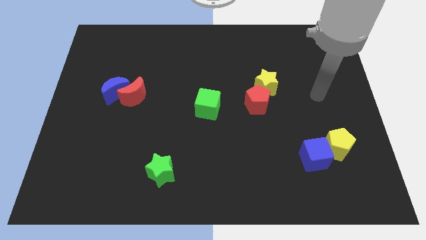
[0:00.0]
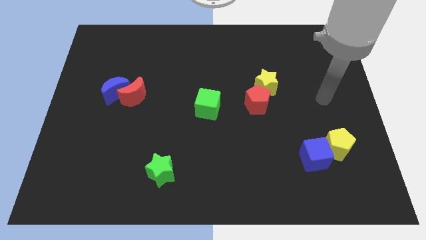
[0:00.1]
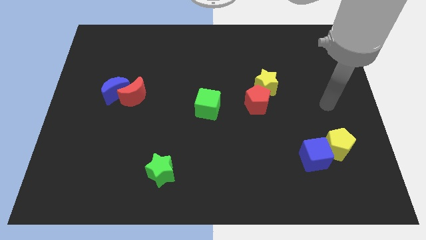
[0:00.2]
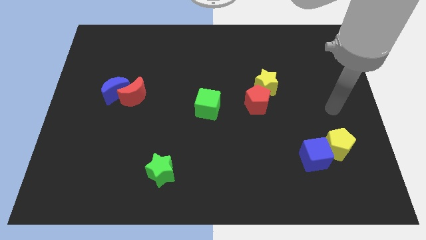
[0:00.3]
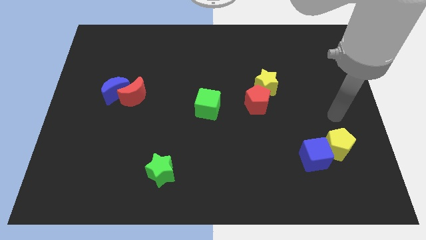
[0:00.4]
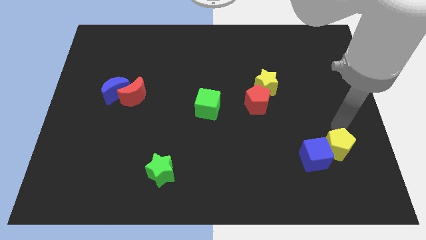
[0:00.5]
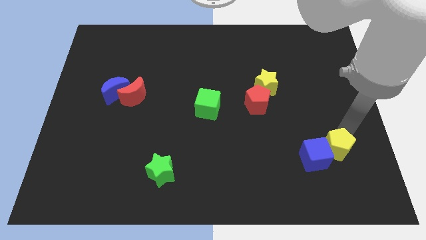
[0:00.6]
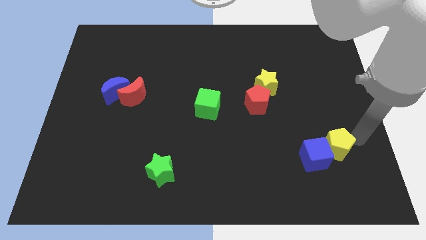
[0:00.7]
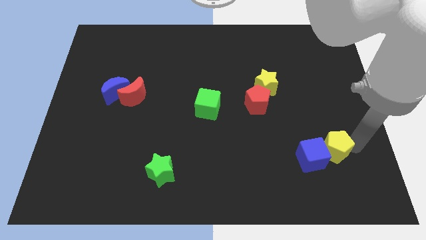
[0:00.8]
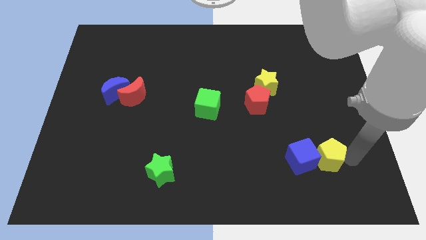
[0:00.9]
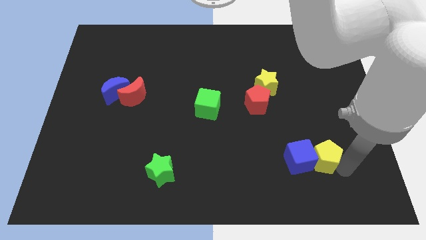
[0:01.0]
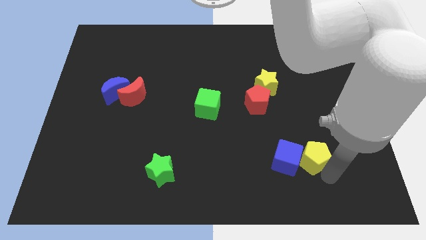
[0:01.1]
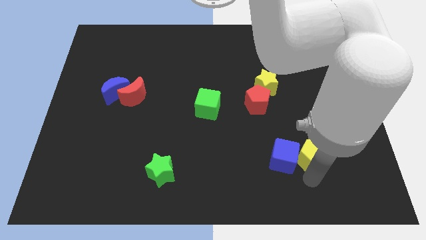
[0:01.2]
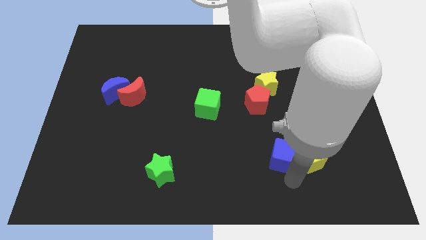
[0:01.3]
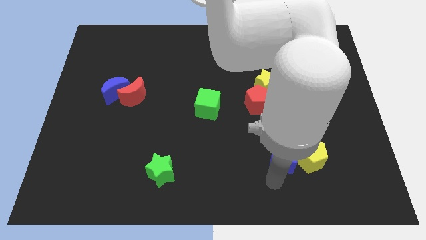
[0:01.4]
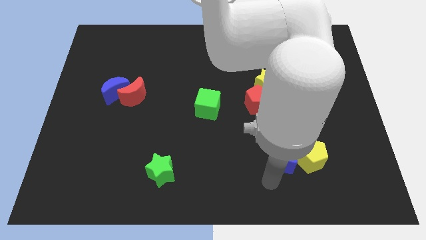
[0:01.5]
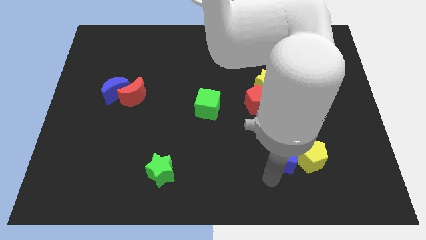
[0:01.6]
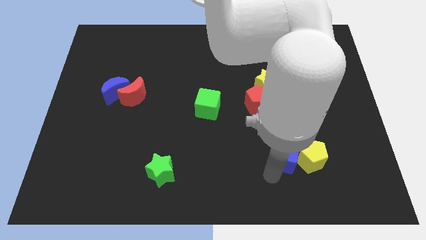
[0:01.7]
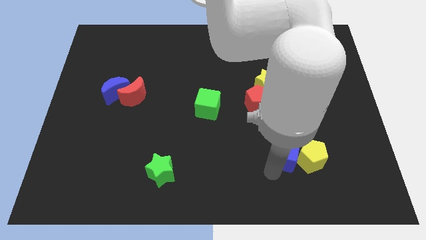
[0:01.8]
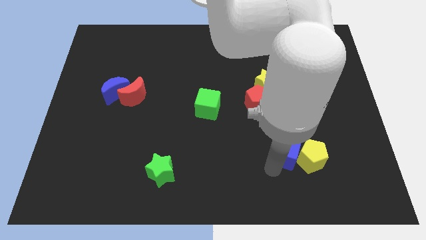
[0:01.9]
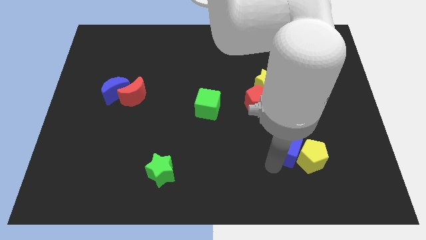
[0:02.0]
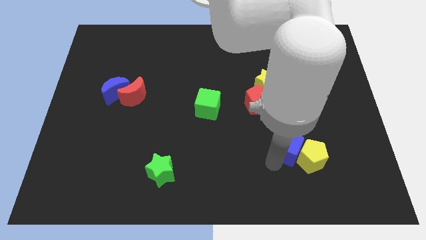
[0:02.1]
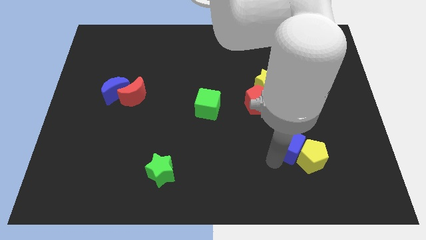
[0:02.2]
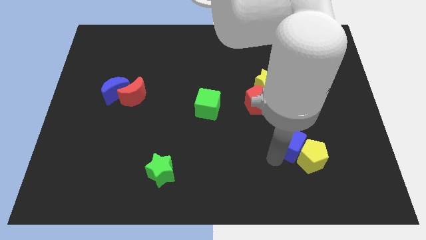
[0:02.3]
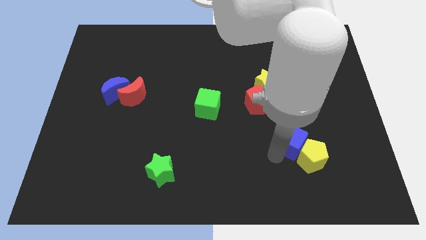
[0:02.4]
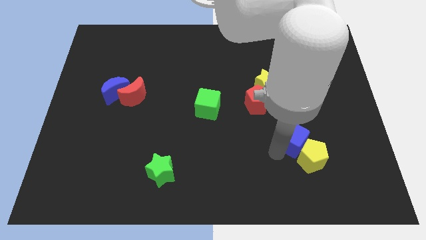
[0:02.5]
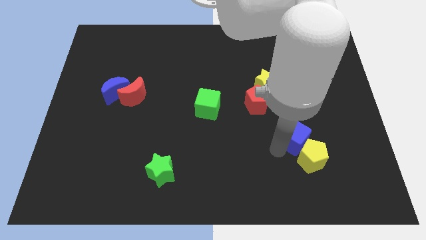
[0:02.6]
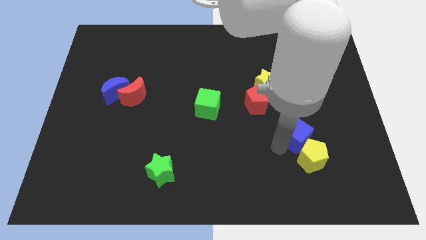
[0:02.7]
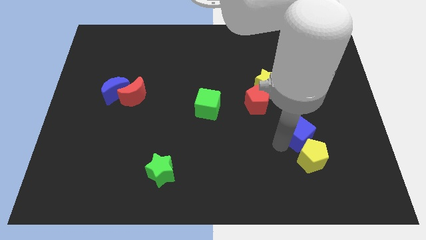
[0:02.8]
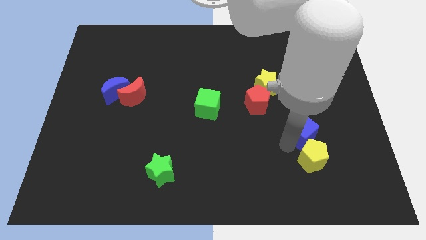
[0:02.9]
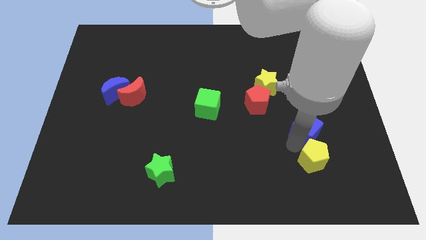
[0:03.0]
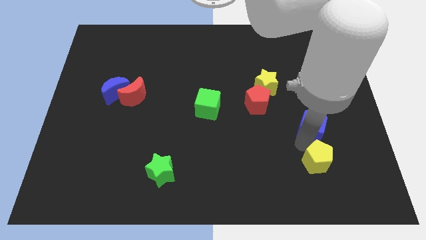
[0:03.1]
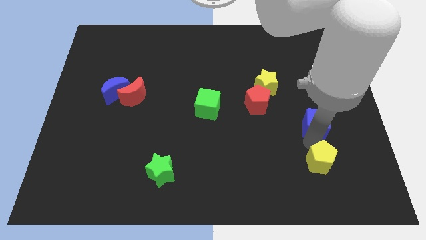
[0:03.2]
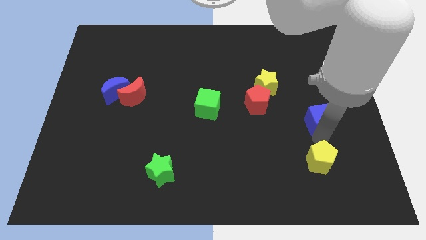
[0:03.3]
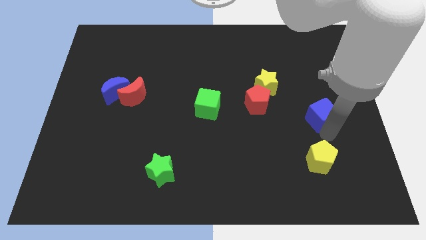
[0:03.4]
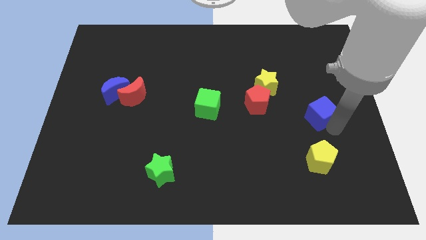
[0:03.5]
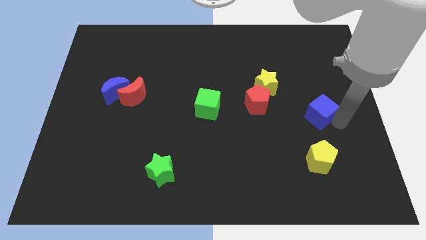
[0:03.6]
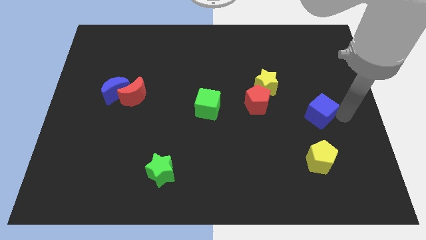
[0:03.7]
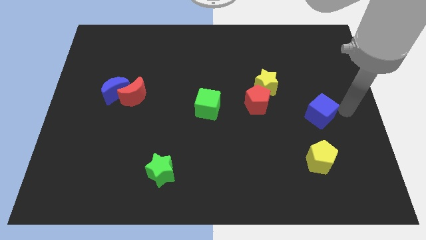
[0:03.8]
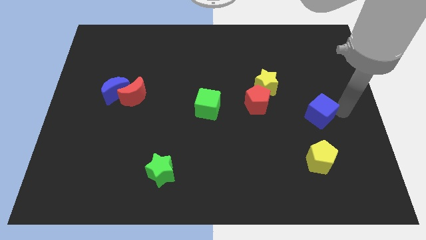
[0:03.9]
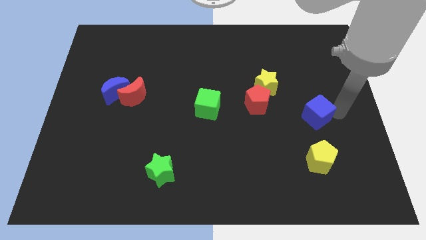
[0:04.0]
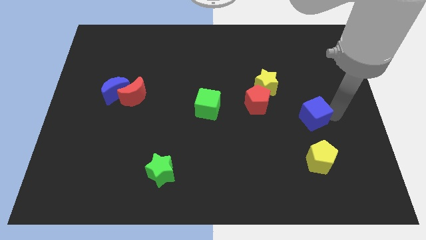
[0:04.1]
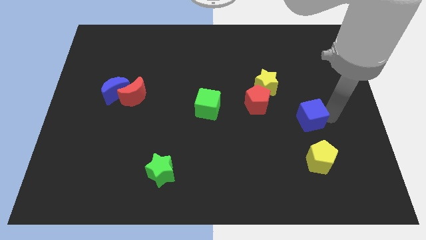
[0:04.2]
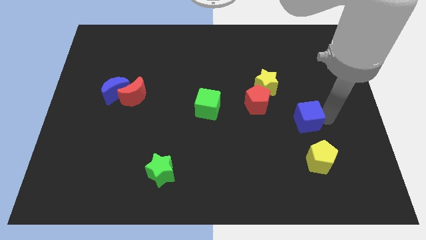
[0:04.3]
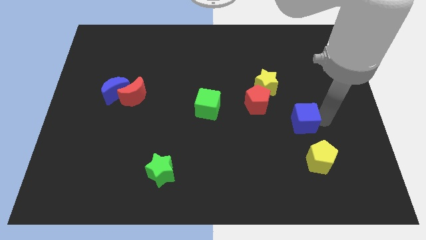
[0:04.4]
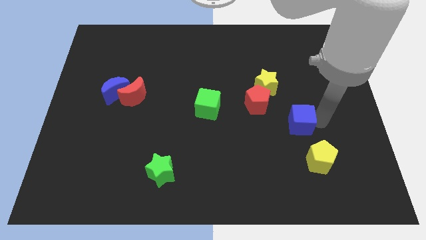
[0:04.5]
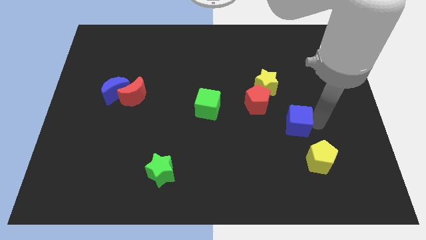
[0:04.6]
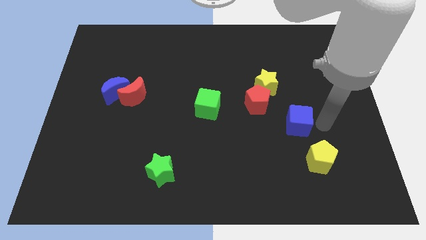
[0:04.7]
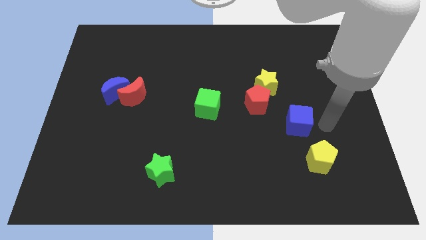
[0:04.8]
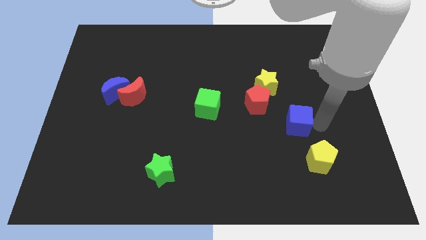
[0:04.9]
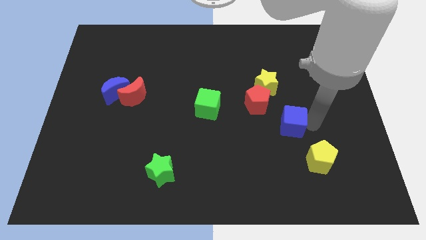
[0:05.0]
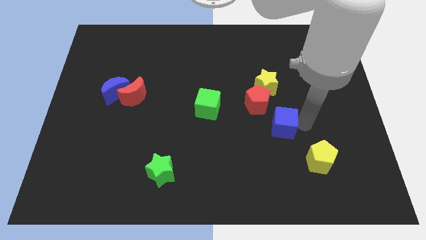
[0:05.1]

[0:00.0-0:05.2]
push the blue cube to the bottom side of the yellow star

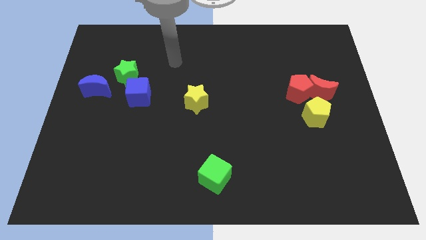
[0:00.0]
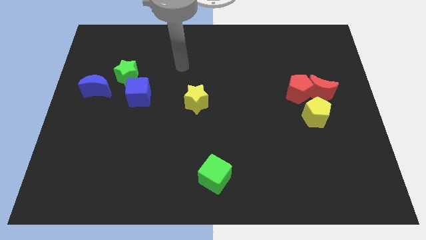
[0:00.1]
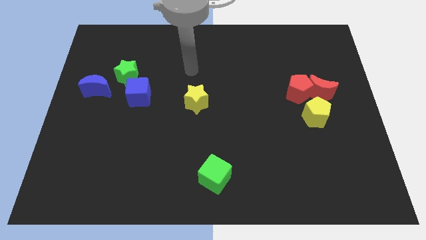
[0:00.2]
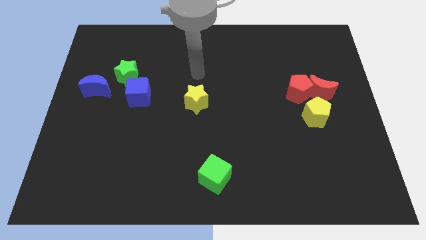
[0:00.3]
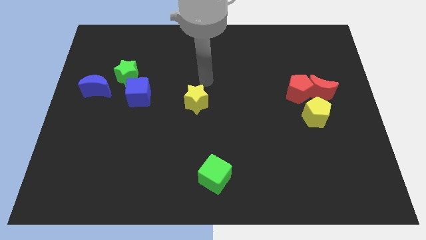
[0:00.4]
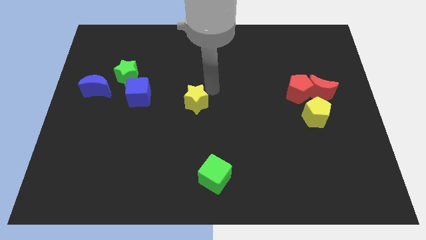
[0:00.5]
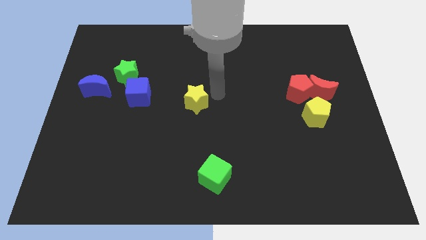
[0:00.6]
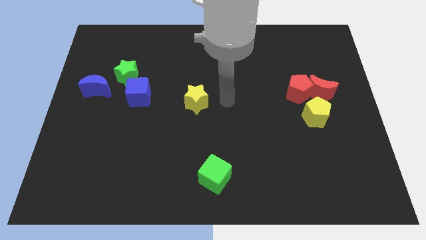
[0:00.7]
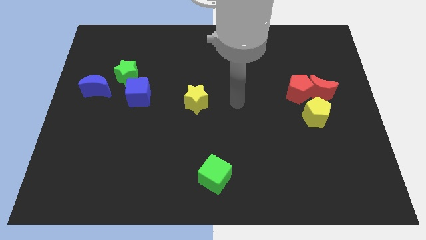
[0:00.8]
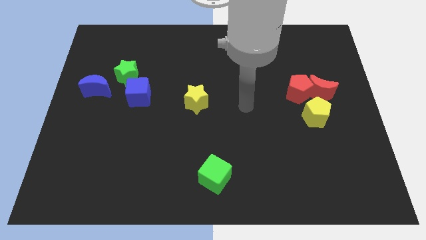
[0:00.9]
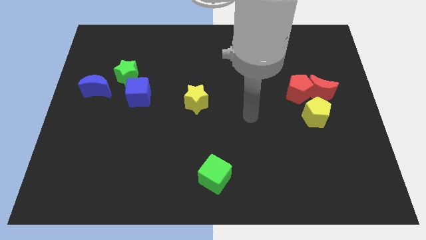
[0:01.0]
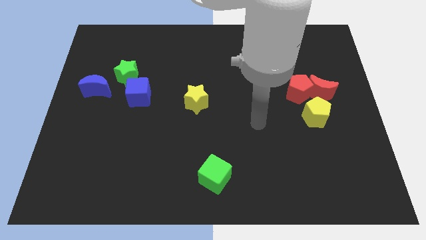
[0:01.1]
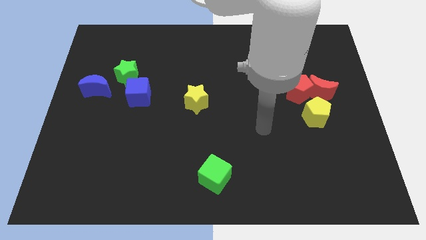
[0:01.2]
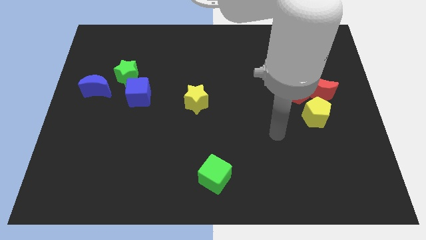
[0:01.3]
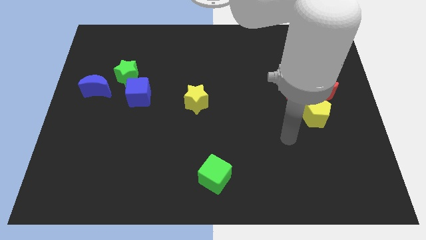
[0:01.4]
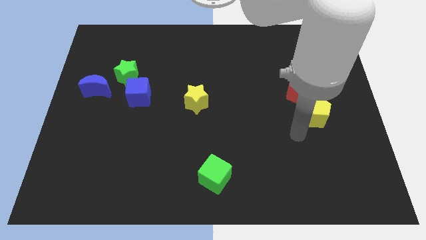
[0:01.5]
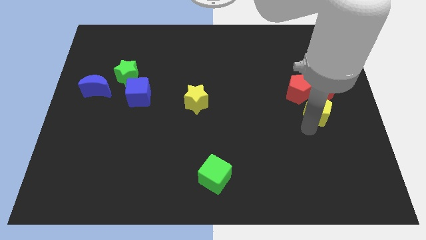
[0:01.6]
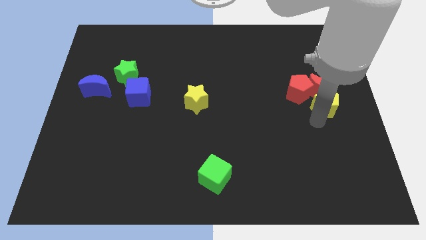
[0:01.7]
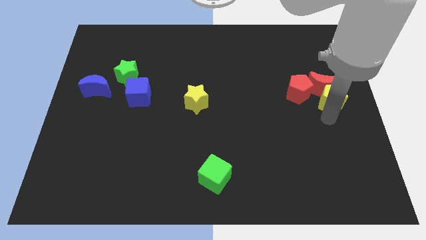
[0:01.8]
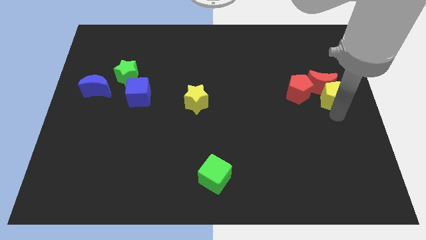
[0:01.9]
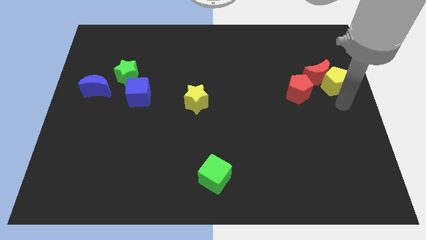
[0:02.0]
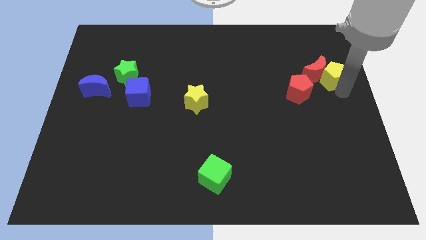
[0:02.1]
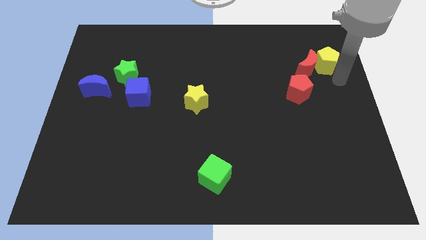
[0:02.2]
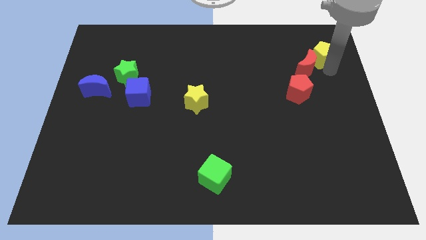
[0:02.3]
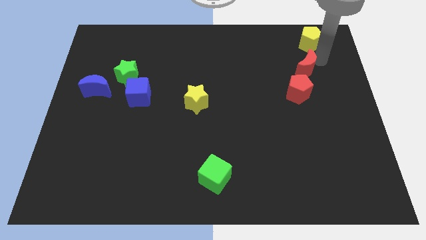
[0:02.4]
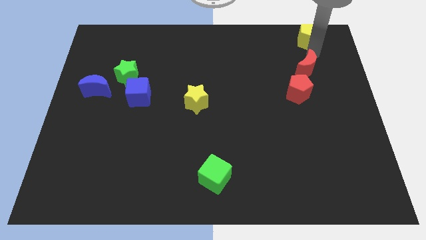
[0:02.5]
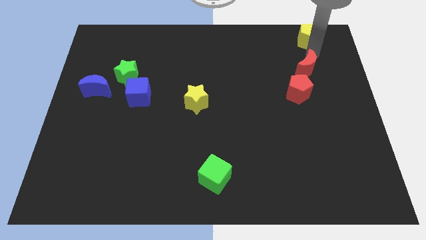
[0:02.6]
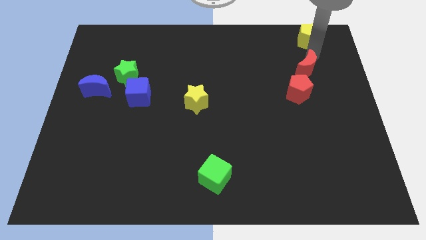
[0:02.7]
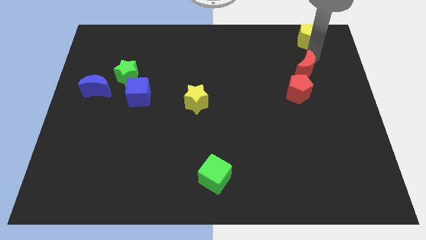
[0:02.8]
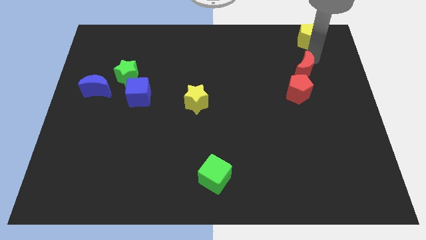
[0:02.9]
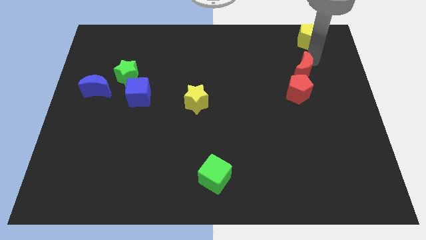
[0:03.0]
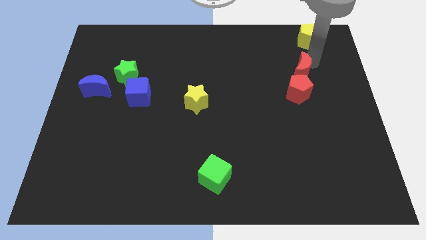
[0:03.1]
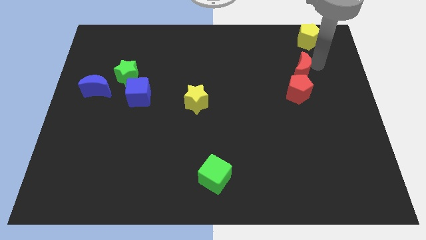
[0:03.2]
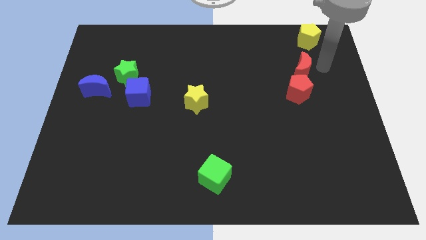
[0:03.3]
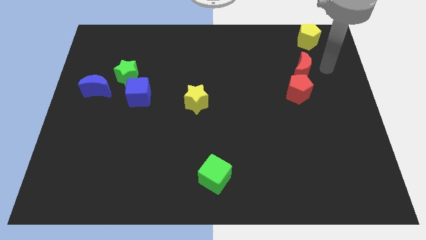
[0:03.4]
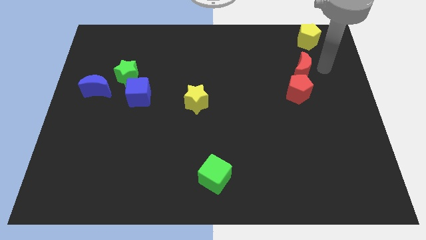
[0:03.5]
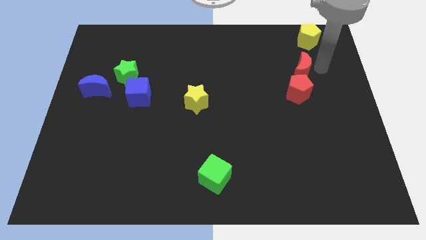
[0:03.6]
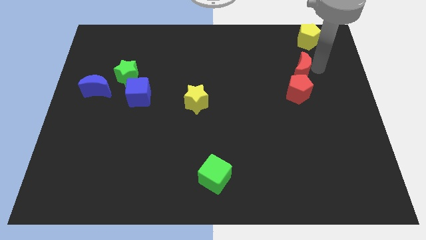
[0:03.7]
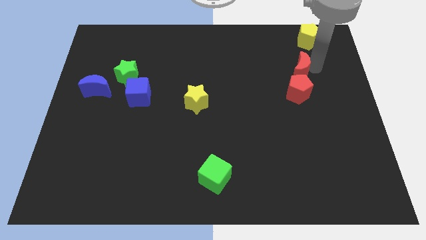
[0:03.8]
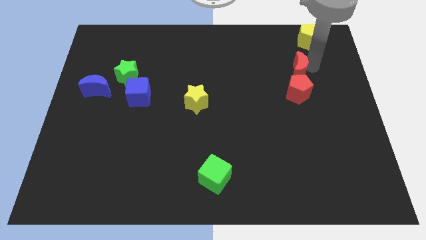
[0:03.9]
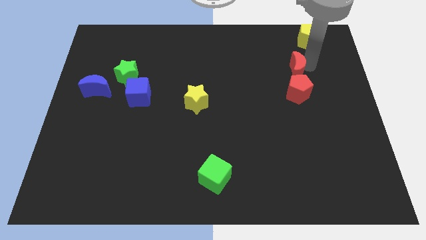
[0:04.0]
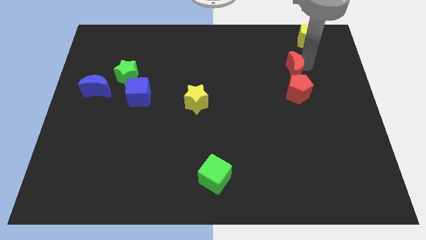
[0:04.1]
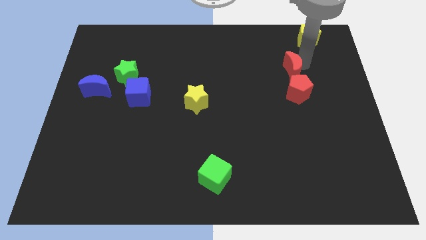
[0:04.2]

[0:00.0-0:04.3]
move the red moon diagonally up and to the left of the red pentagon
